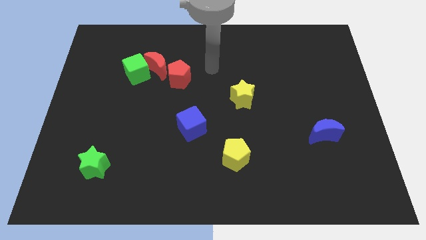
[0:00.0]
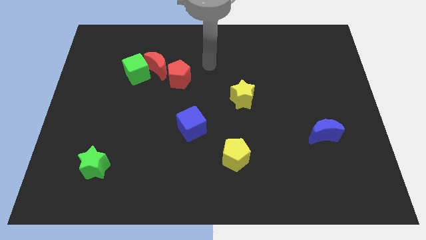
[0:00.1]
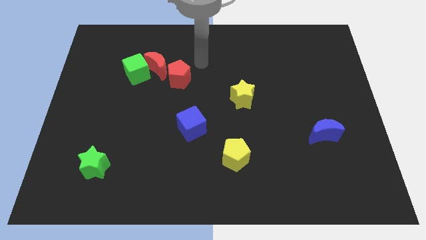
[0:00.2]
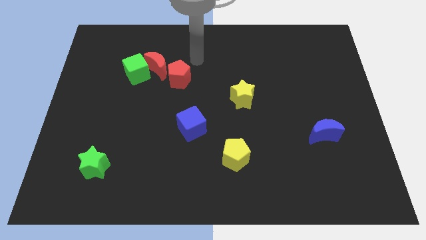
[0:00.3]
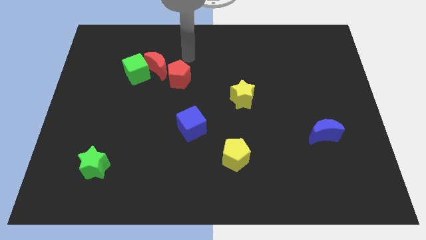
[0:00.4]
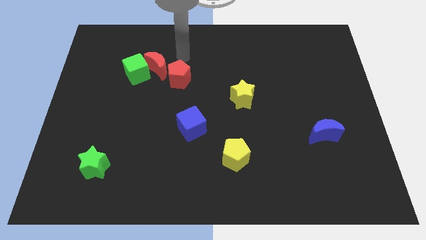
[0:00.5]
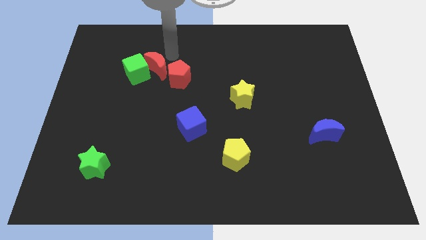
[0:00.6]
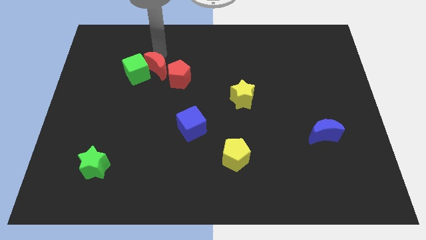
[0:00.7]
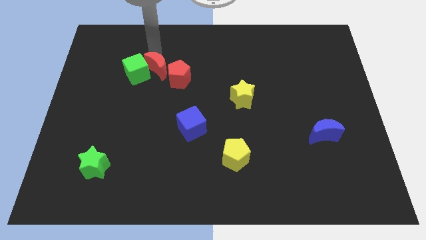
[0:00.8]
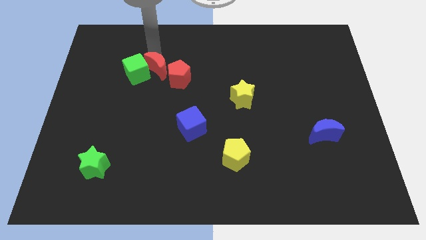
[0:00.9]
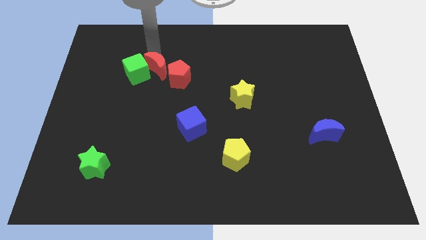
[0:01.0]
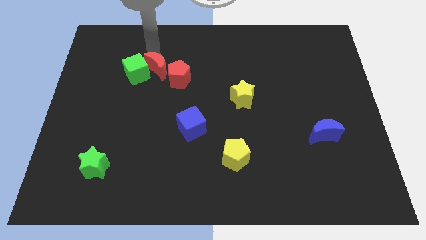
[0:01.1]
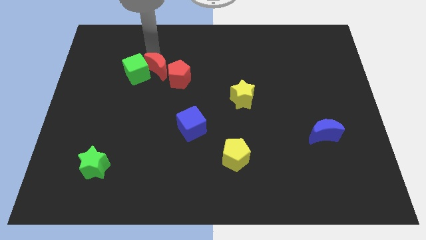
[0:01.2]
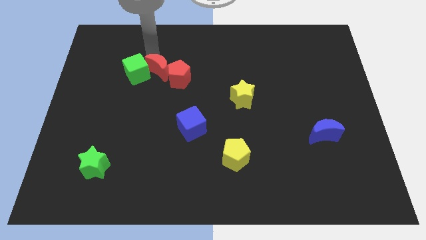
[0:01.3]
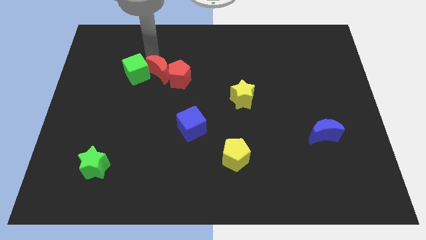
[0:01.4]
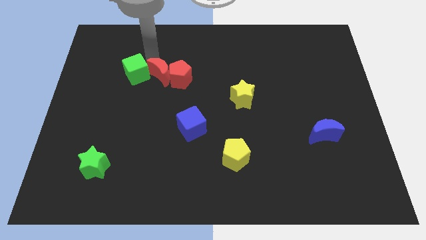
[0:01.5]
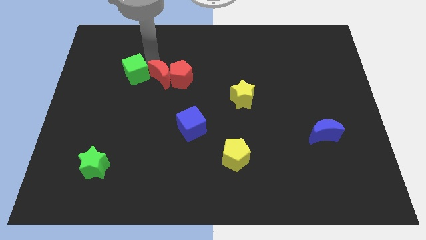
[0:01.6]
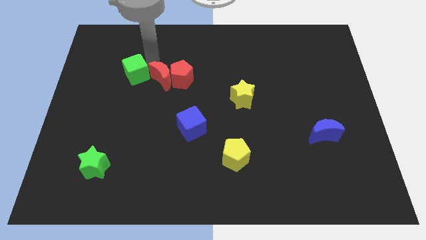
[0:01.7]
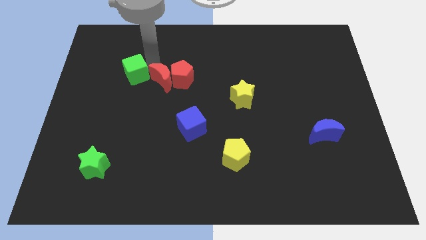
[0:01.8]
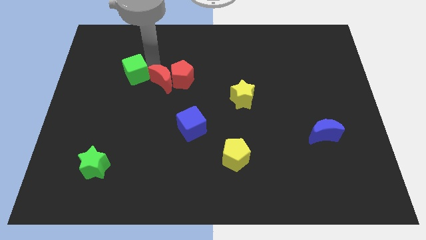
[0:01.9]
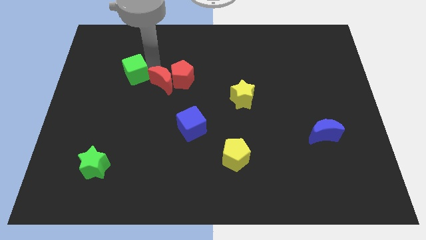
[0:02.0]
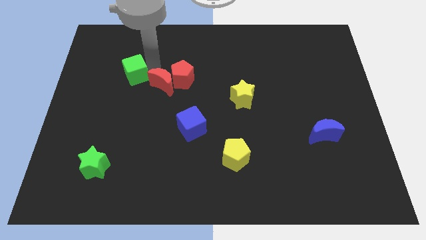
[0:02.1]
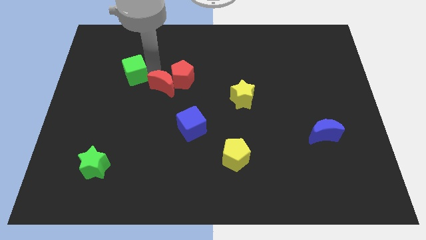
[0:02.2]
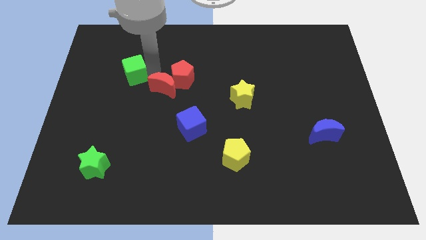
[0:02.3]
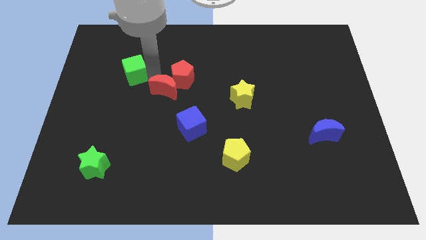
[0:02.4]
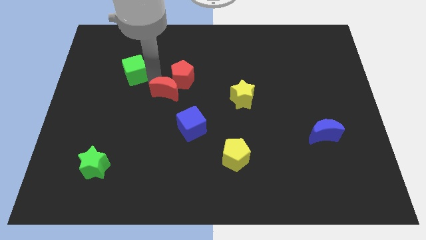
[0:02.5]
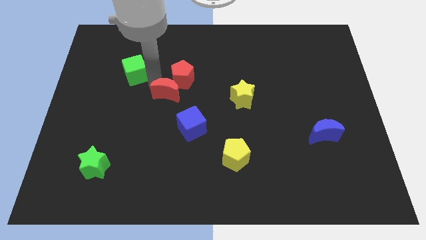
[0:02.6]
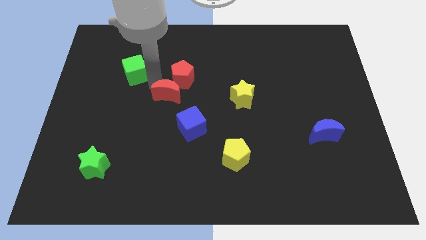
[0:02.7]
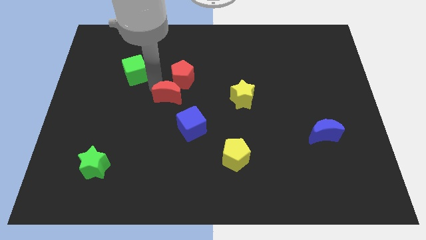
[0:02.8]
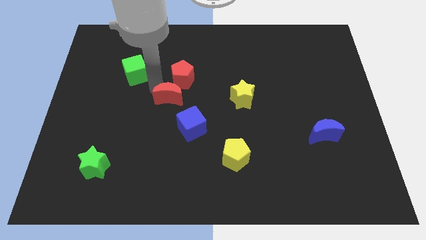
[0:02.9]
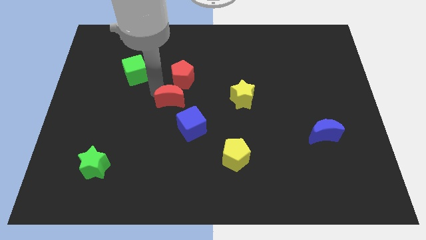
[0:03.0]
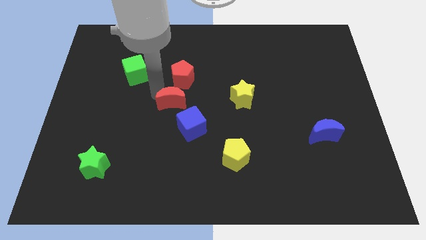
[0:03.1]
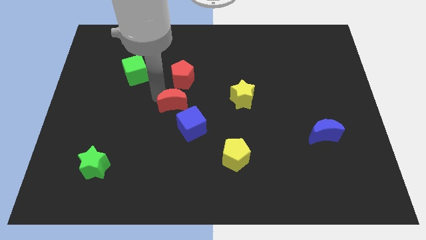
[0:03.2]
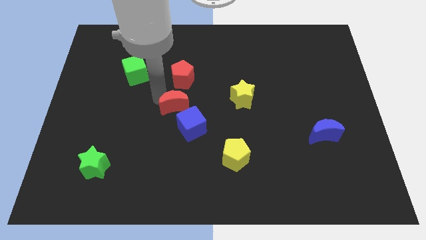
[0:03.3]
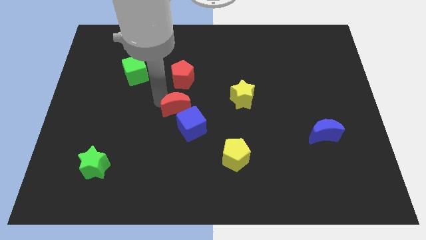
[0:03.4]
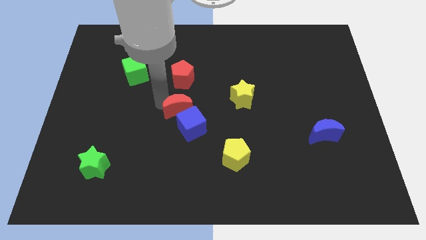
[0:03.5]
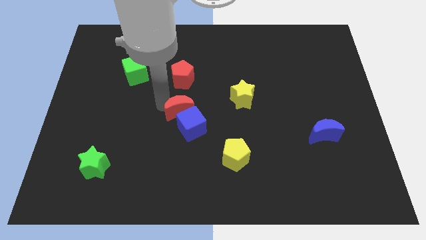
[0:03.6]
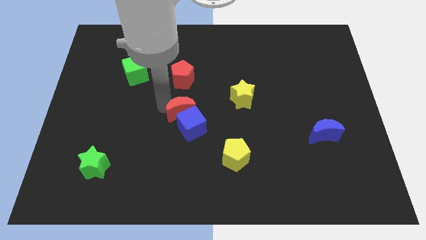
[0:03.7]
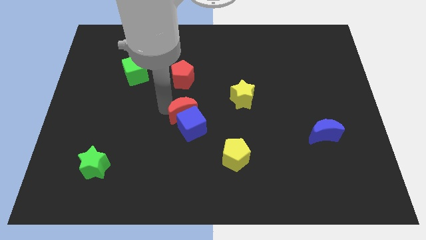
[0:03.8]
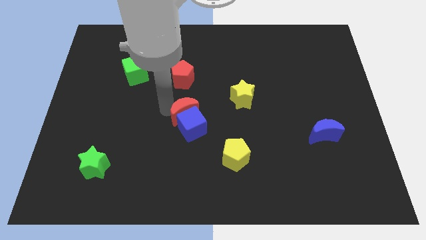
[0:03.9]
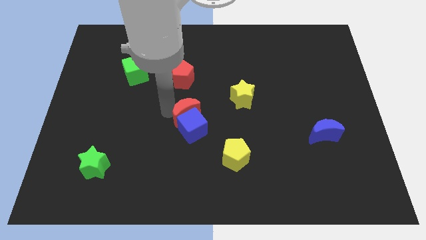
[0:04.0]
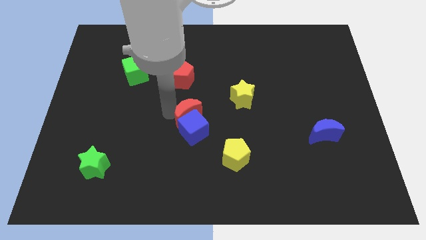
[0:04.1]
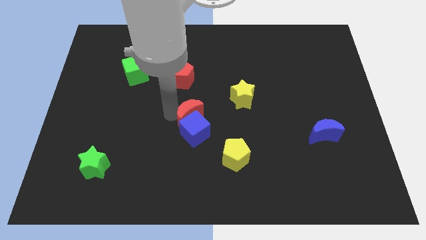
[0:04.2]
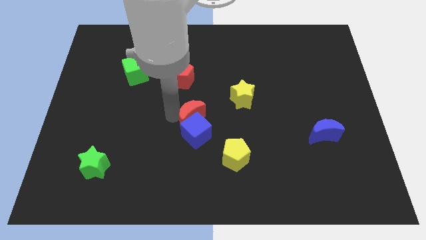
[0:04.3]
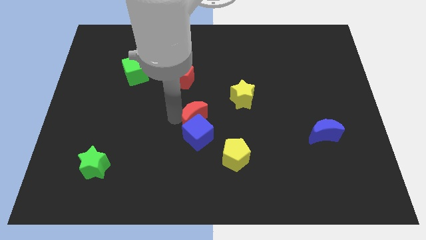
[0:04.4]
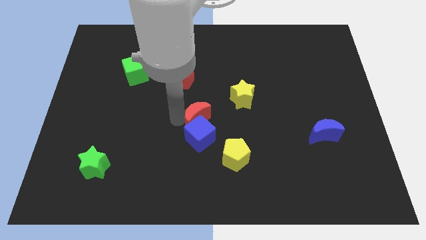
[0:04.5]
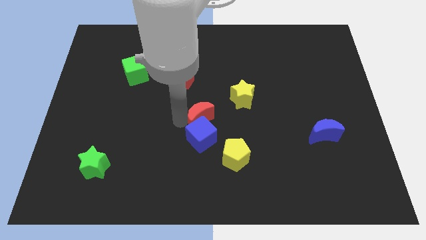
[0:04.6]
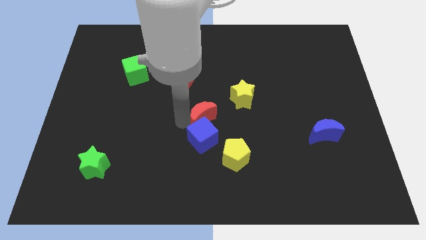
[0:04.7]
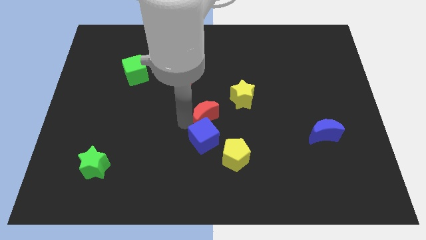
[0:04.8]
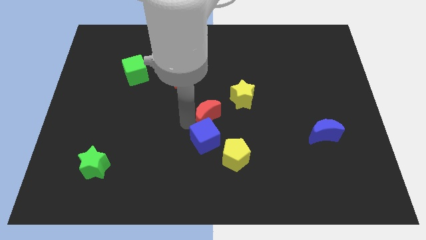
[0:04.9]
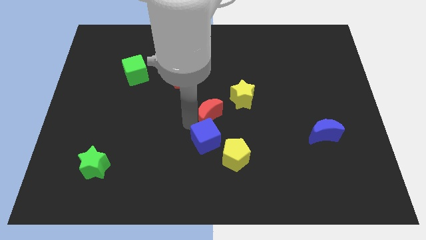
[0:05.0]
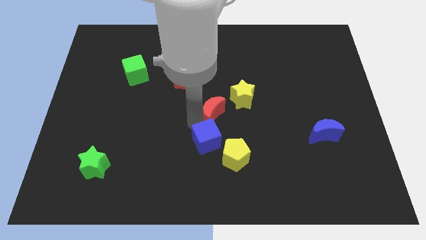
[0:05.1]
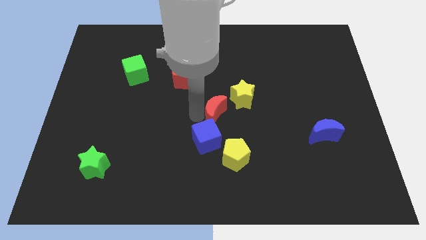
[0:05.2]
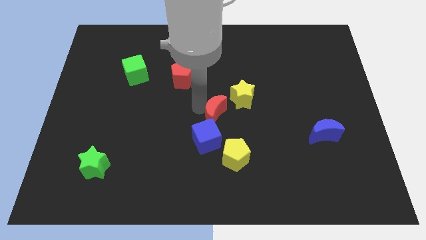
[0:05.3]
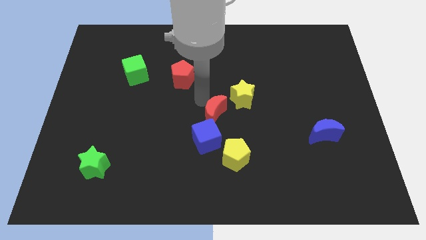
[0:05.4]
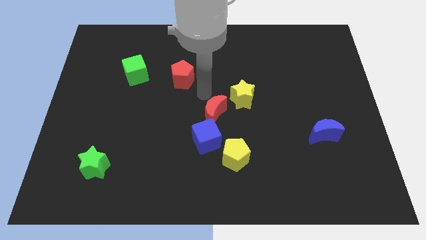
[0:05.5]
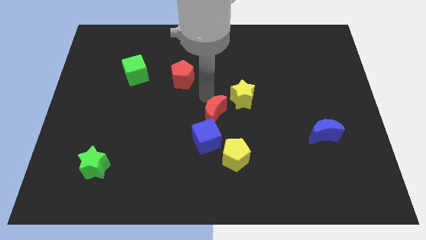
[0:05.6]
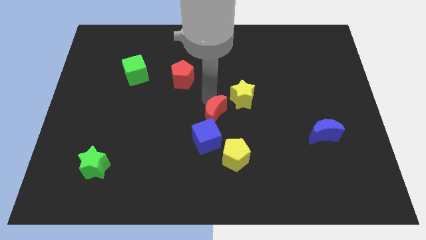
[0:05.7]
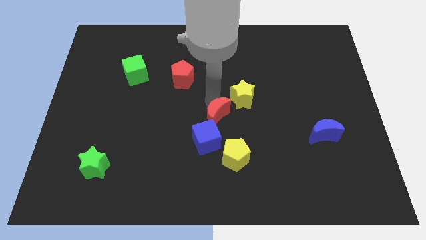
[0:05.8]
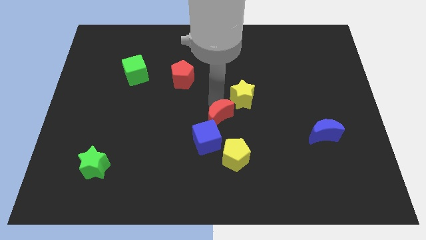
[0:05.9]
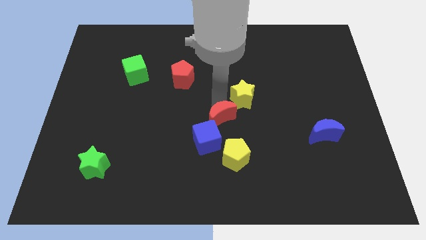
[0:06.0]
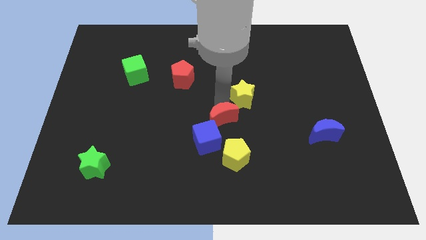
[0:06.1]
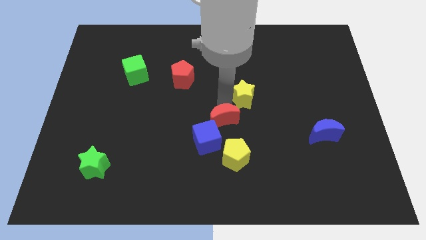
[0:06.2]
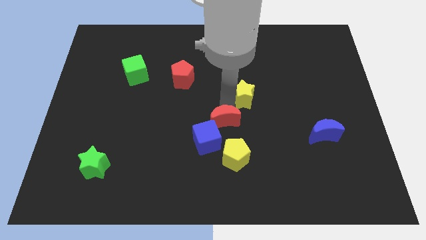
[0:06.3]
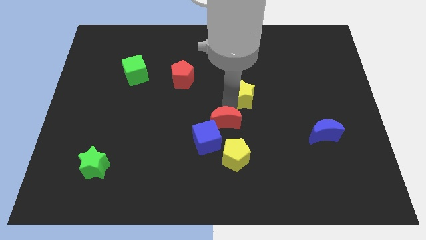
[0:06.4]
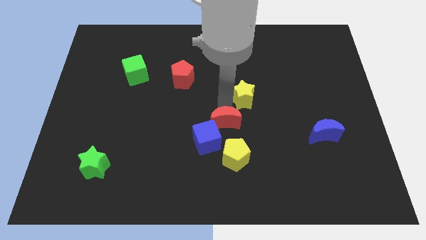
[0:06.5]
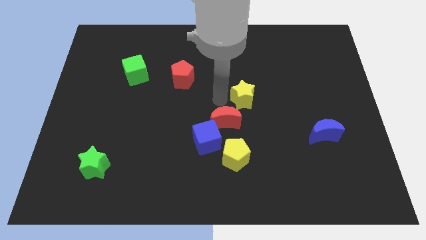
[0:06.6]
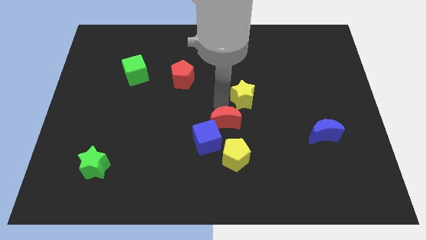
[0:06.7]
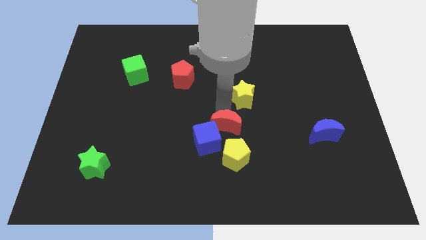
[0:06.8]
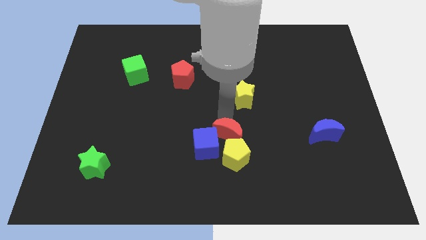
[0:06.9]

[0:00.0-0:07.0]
move the red moon next to the yellow pentagon

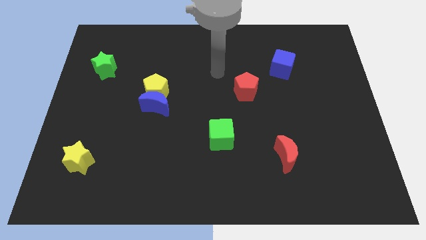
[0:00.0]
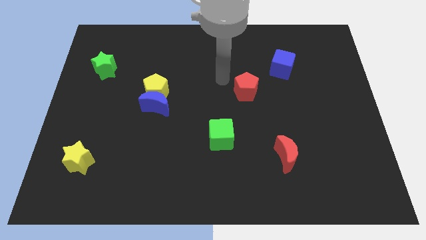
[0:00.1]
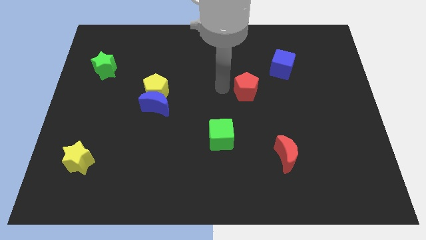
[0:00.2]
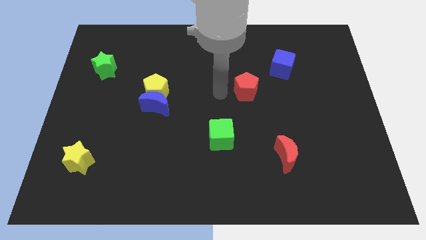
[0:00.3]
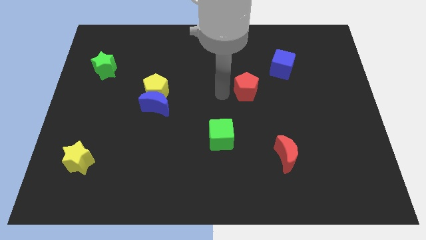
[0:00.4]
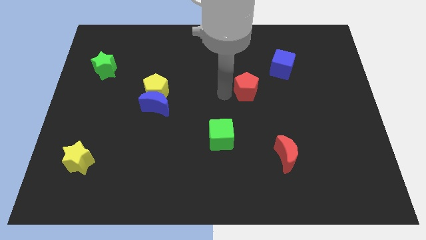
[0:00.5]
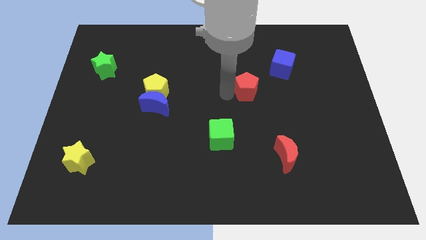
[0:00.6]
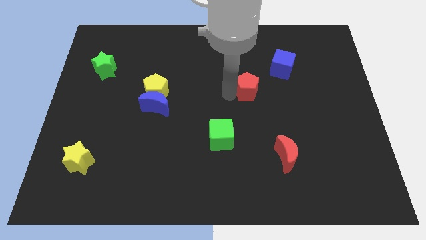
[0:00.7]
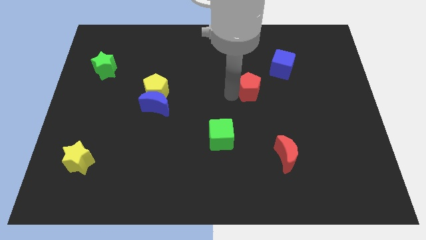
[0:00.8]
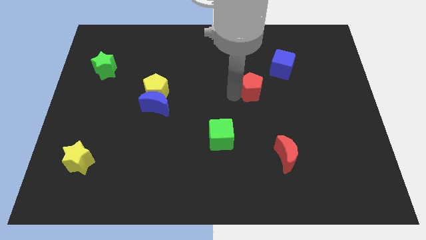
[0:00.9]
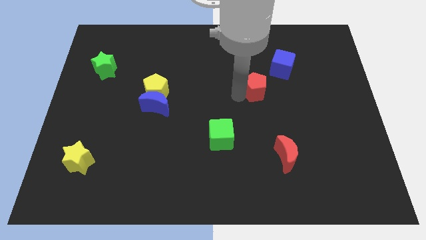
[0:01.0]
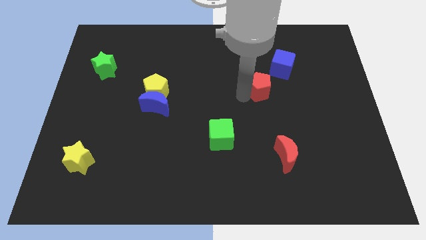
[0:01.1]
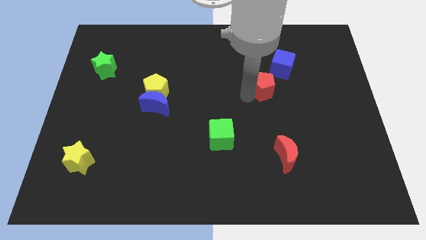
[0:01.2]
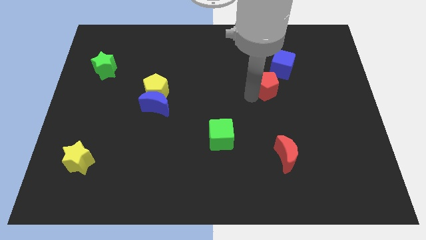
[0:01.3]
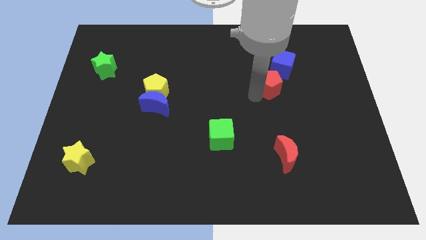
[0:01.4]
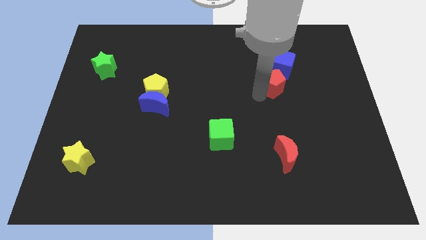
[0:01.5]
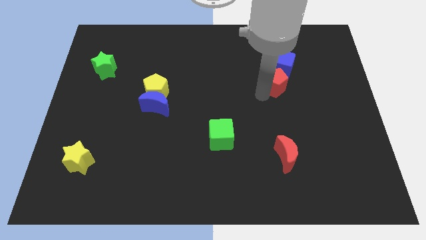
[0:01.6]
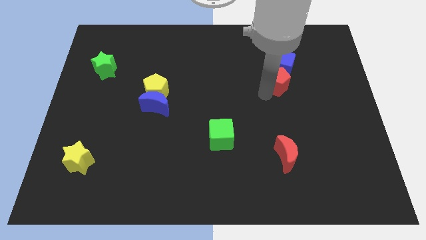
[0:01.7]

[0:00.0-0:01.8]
push the red pentagon next to the blue cube
